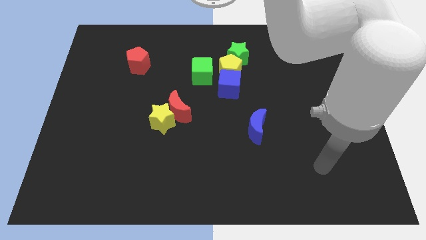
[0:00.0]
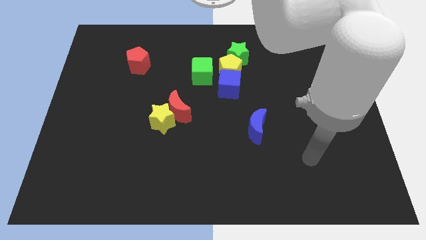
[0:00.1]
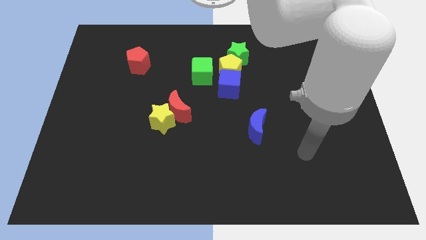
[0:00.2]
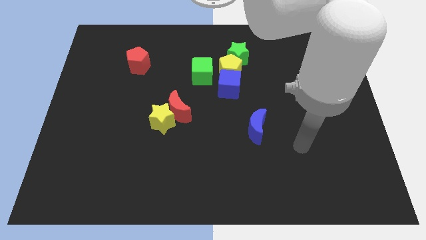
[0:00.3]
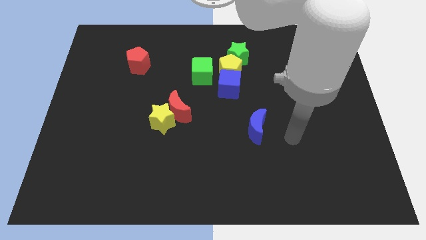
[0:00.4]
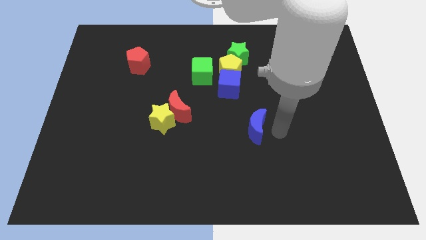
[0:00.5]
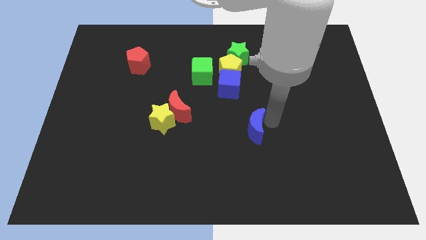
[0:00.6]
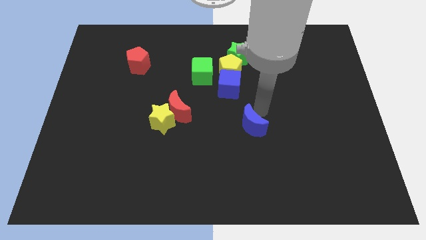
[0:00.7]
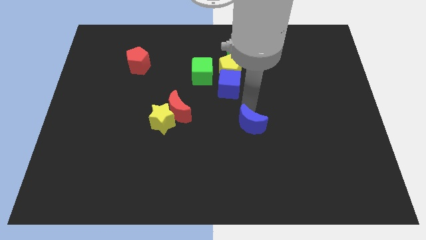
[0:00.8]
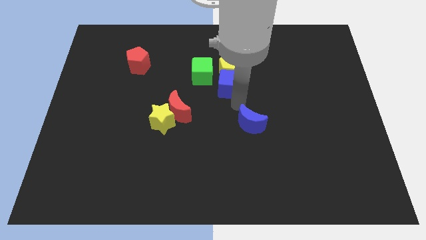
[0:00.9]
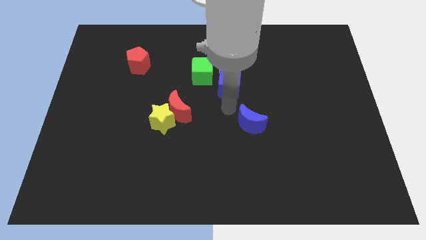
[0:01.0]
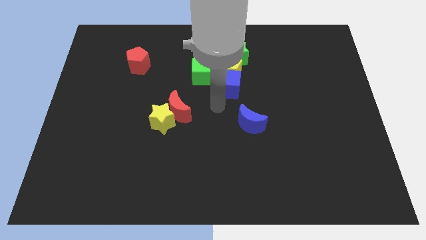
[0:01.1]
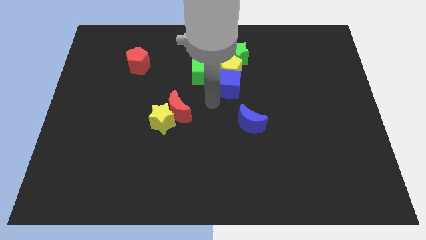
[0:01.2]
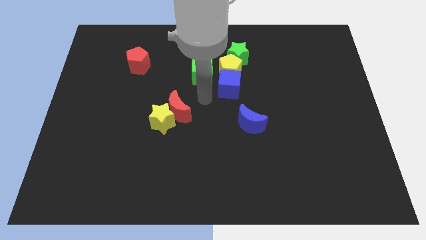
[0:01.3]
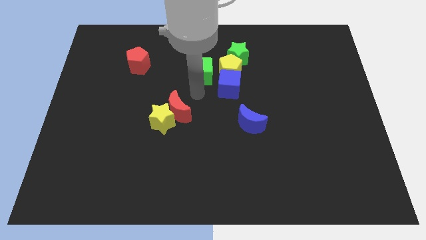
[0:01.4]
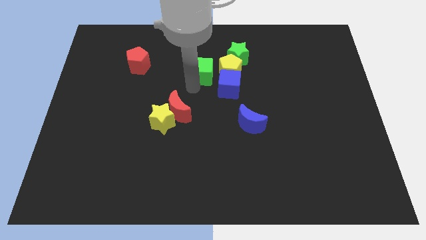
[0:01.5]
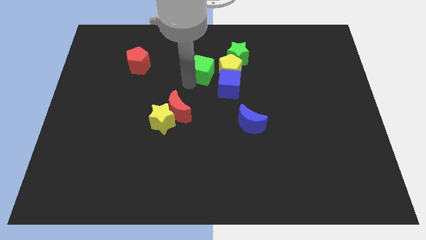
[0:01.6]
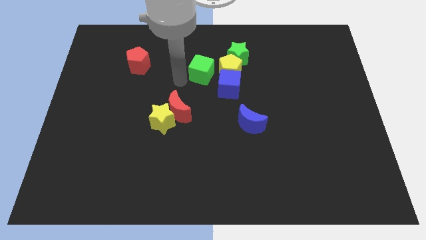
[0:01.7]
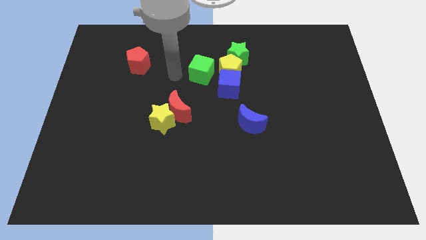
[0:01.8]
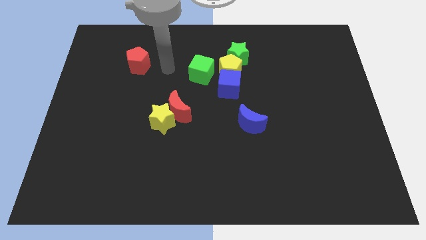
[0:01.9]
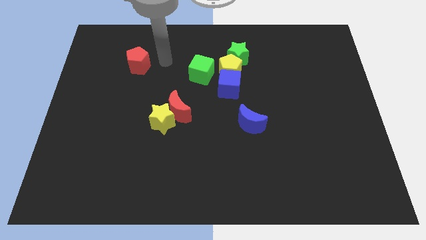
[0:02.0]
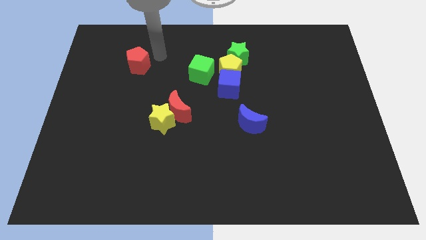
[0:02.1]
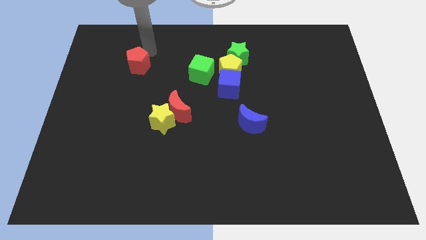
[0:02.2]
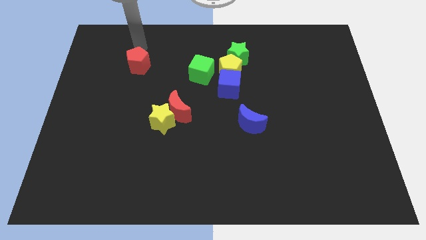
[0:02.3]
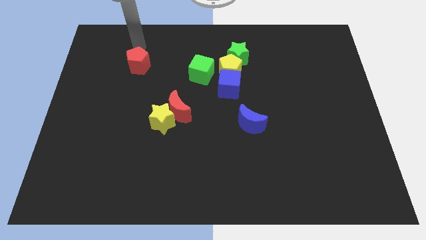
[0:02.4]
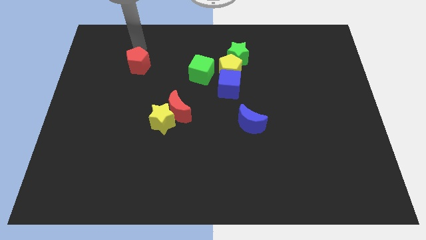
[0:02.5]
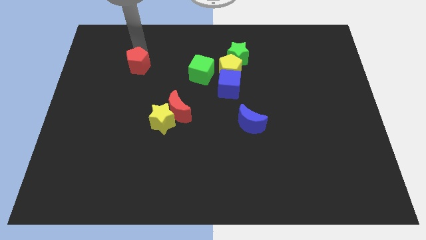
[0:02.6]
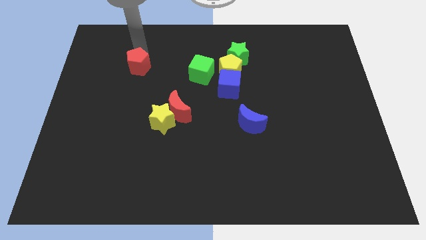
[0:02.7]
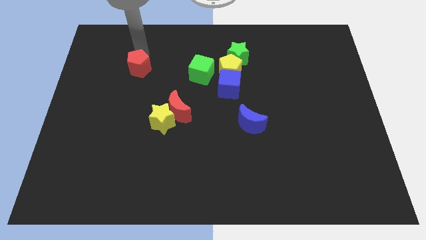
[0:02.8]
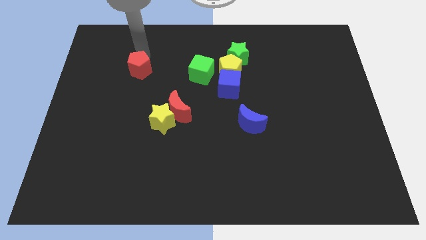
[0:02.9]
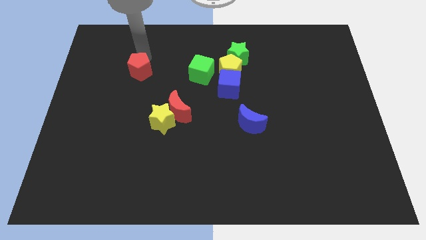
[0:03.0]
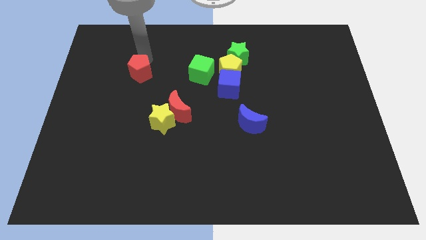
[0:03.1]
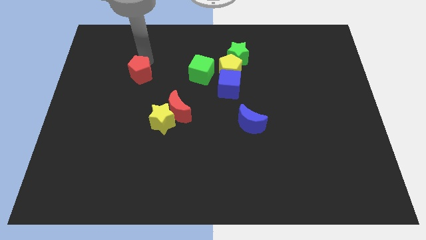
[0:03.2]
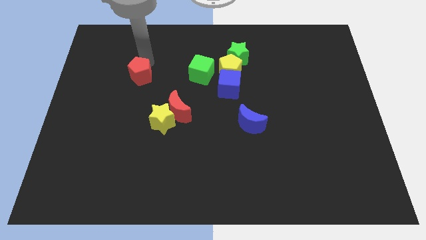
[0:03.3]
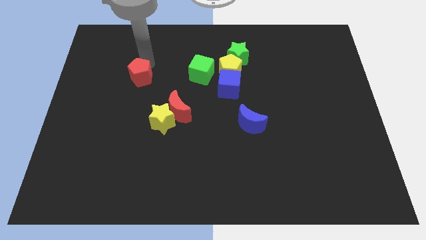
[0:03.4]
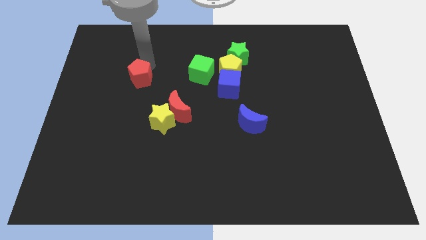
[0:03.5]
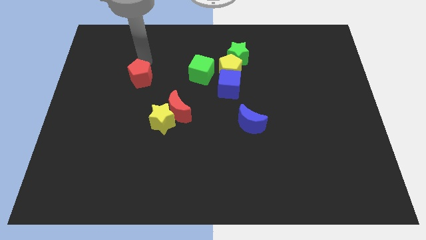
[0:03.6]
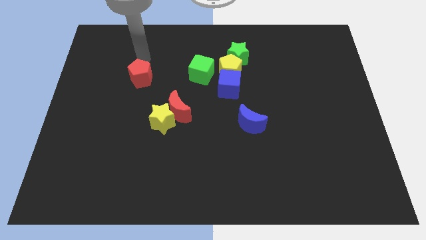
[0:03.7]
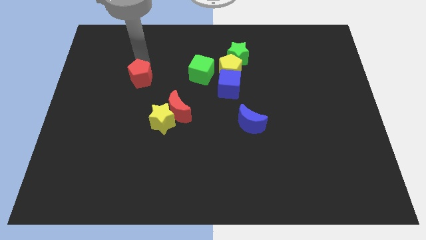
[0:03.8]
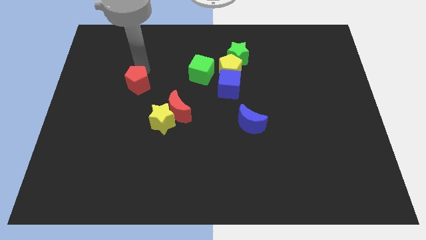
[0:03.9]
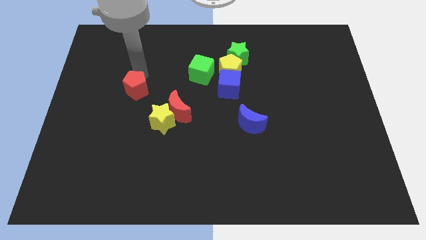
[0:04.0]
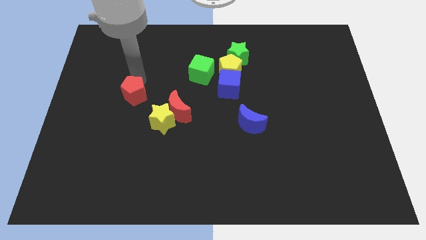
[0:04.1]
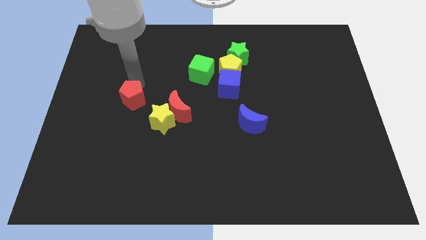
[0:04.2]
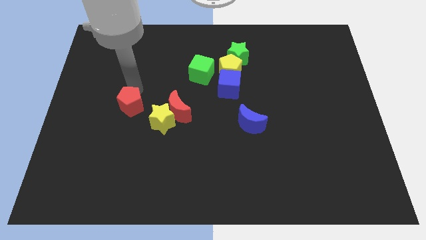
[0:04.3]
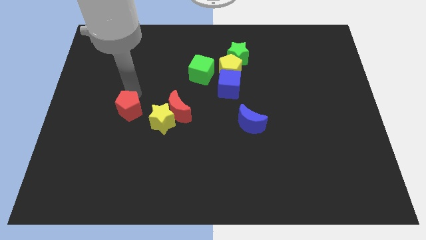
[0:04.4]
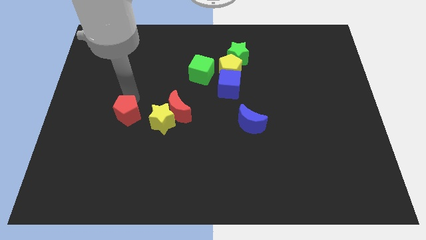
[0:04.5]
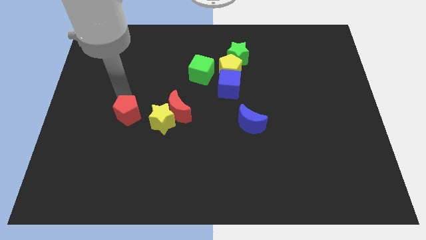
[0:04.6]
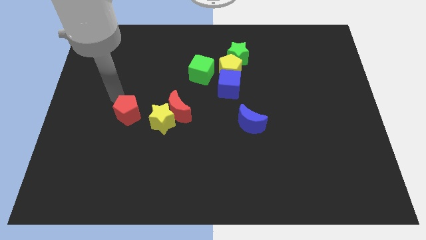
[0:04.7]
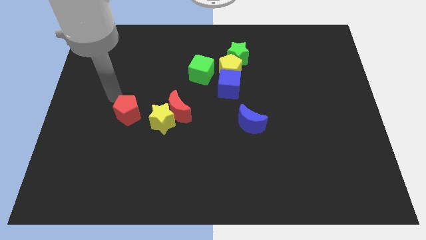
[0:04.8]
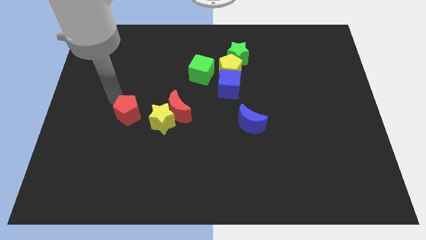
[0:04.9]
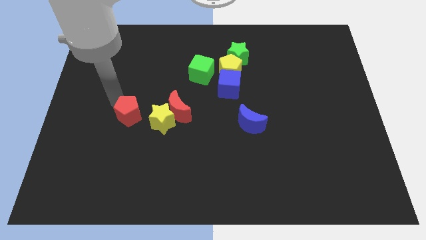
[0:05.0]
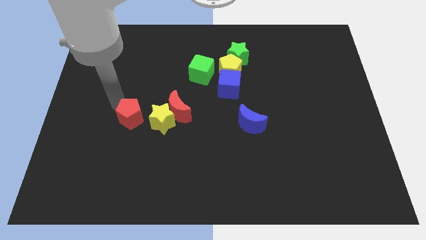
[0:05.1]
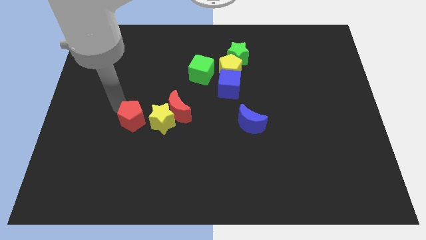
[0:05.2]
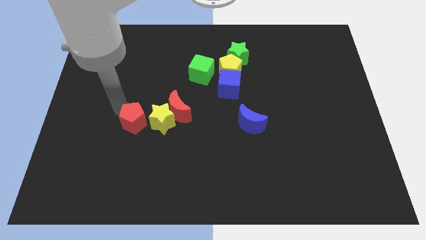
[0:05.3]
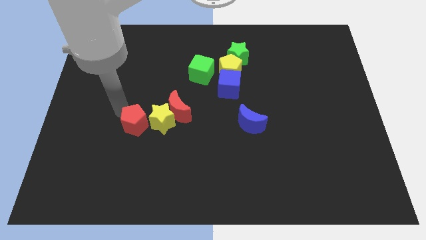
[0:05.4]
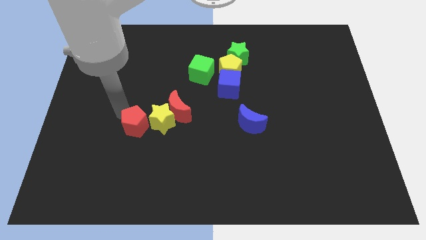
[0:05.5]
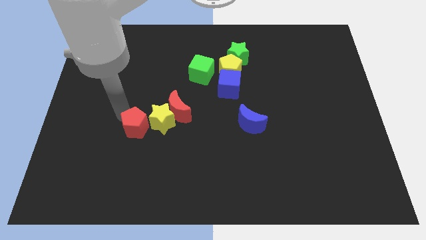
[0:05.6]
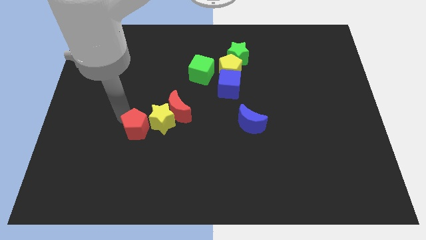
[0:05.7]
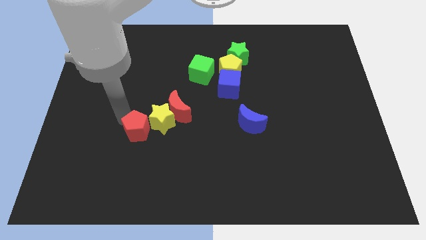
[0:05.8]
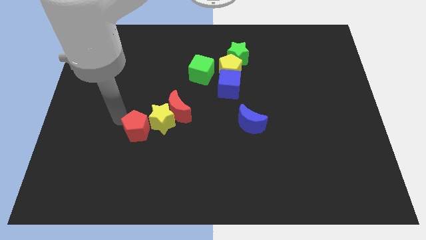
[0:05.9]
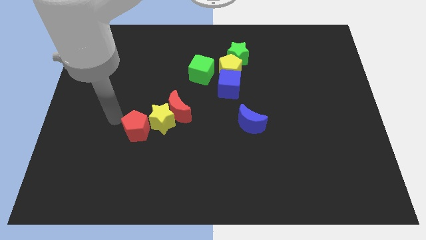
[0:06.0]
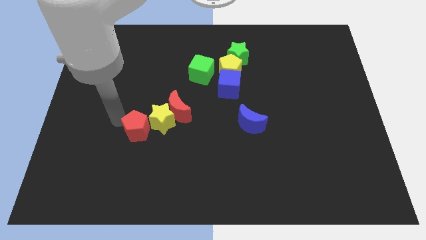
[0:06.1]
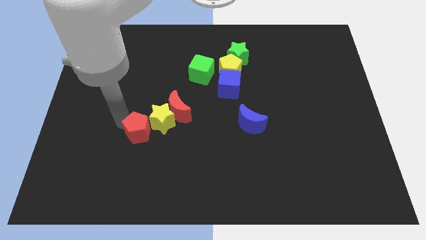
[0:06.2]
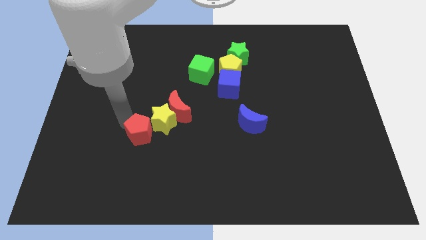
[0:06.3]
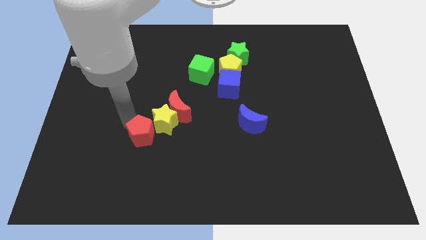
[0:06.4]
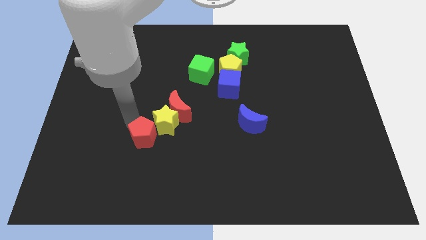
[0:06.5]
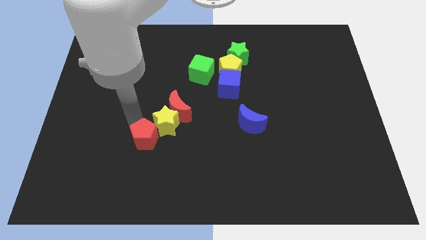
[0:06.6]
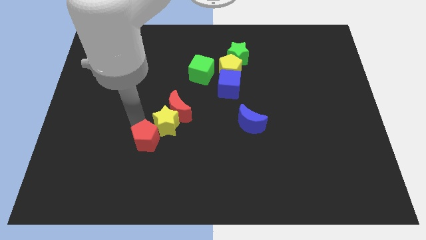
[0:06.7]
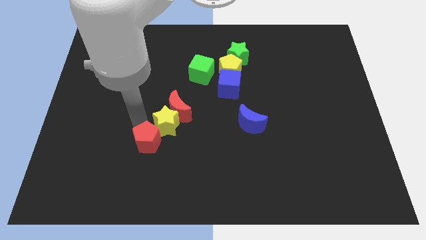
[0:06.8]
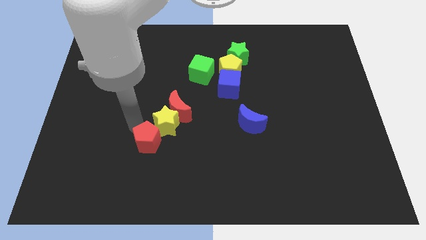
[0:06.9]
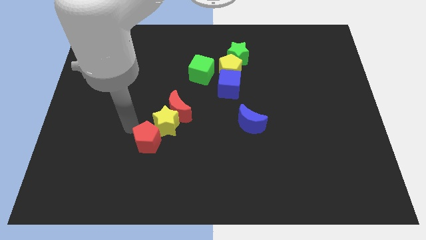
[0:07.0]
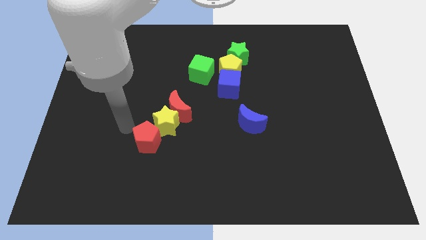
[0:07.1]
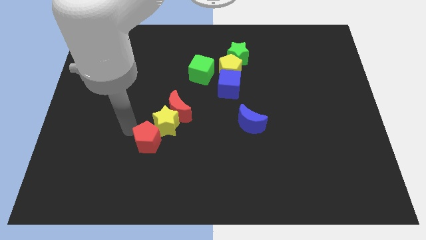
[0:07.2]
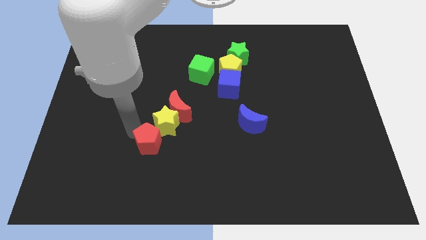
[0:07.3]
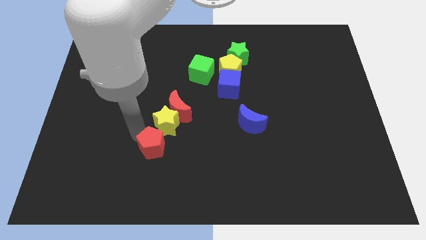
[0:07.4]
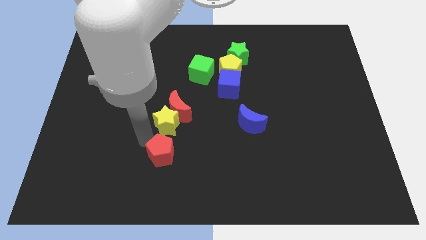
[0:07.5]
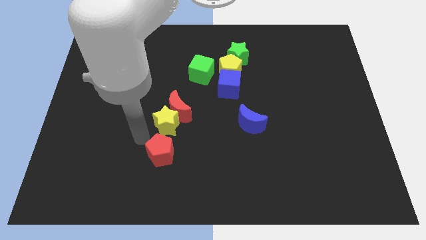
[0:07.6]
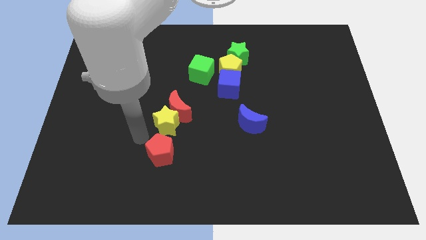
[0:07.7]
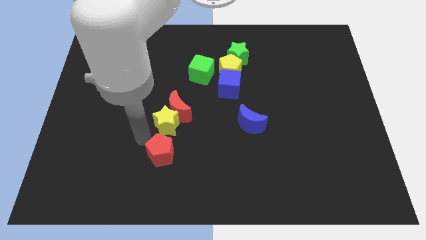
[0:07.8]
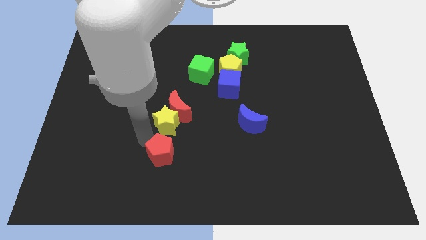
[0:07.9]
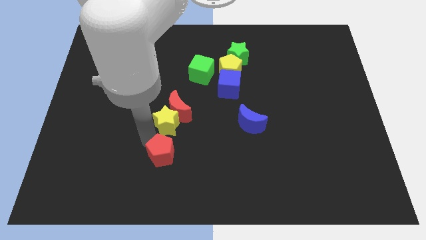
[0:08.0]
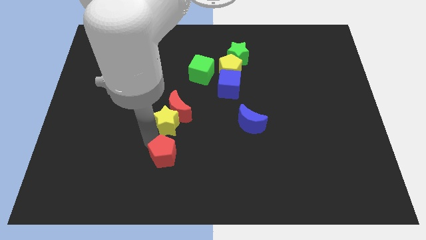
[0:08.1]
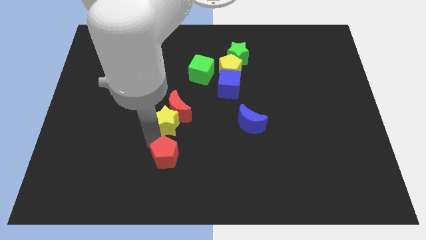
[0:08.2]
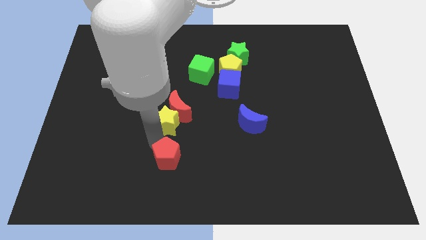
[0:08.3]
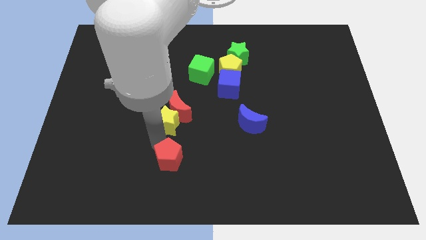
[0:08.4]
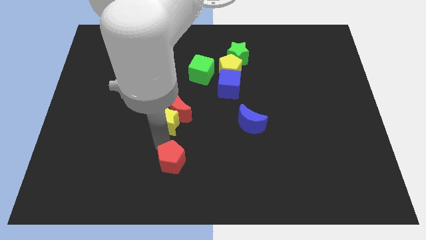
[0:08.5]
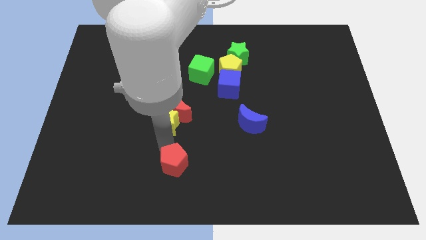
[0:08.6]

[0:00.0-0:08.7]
slide the red pentagon to the bottom side
